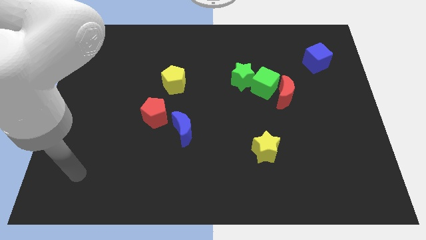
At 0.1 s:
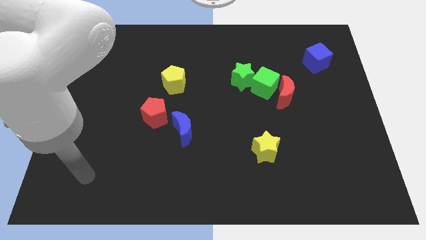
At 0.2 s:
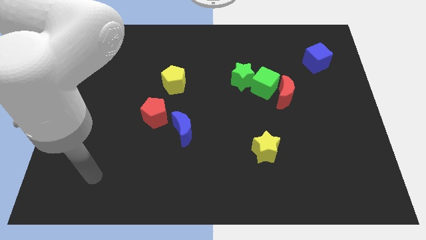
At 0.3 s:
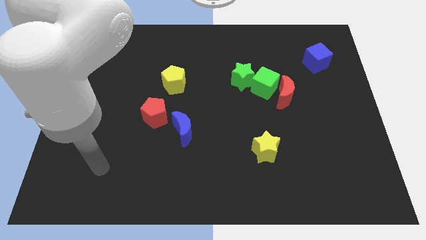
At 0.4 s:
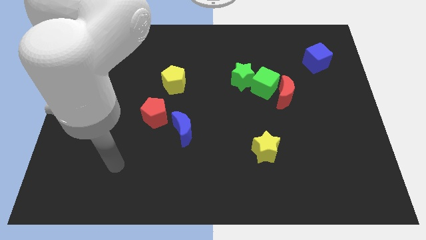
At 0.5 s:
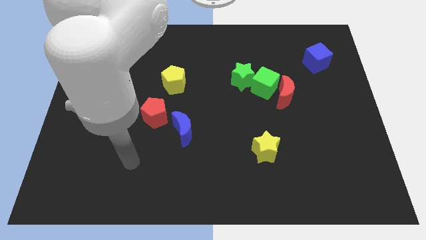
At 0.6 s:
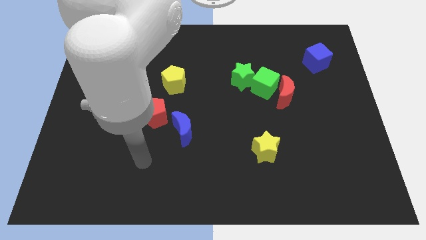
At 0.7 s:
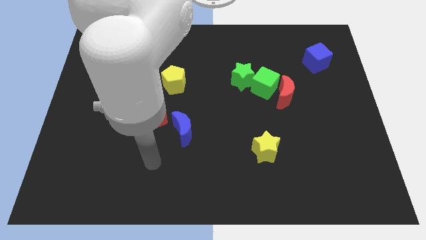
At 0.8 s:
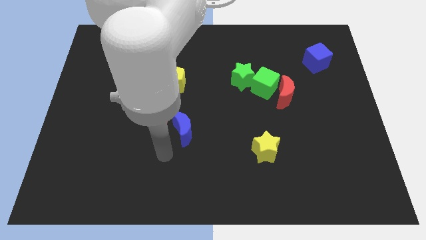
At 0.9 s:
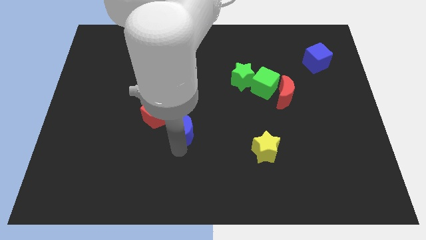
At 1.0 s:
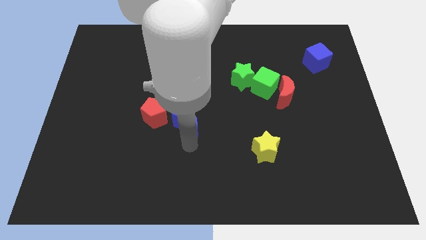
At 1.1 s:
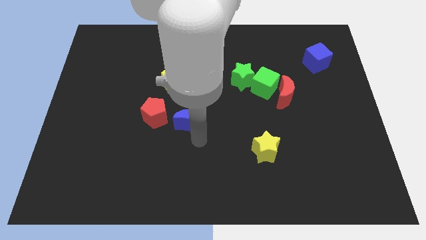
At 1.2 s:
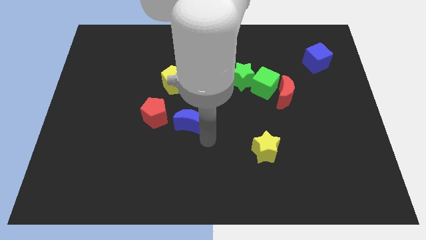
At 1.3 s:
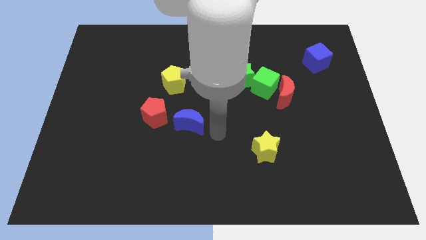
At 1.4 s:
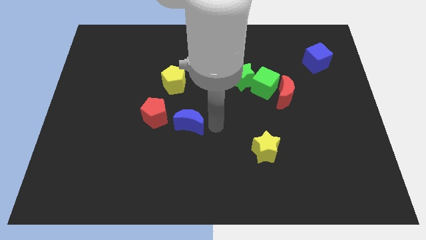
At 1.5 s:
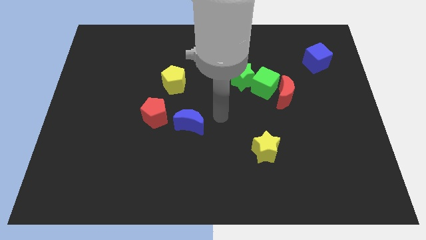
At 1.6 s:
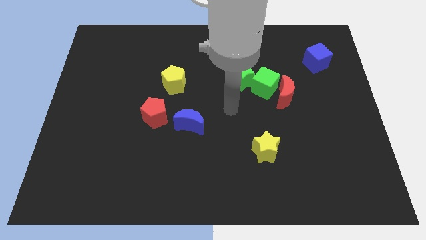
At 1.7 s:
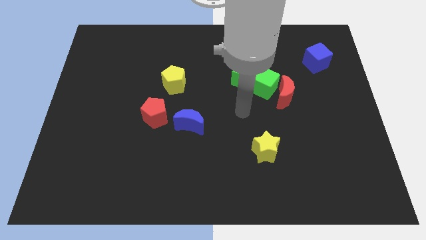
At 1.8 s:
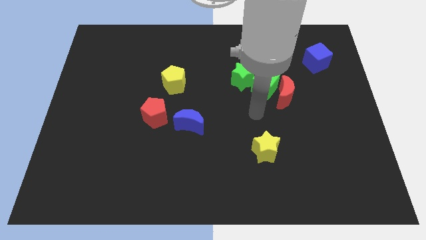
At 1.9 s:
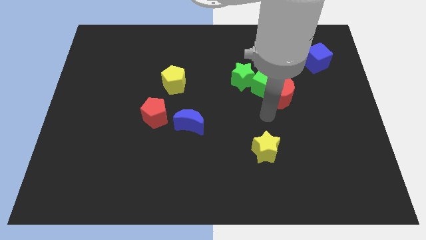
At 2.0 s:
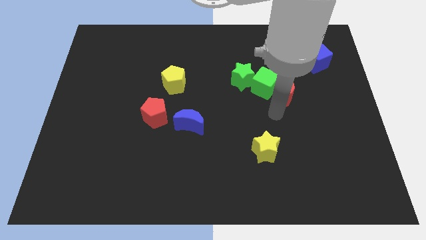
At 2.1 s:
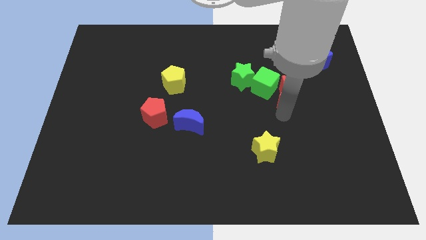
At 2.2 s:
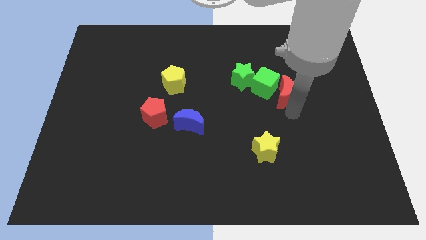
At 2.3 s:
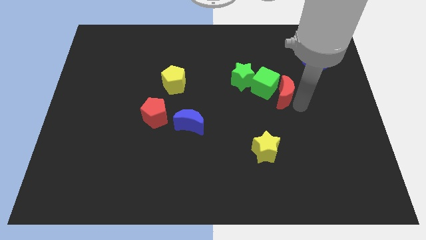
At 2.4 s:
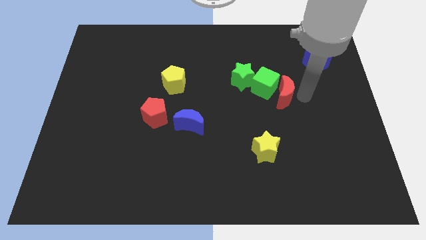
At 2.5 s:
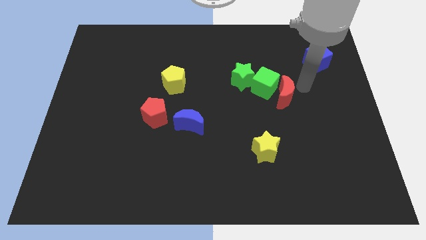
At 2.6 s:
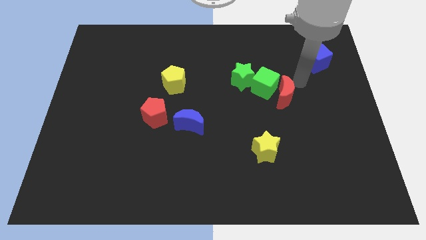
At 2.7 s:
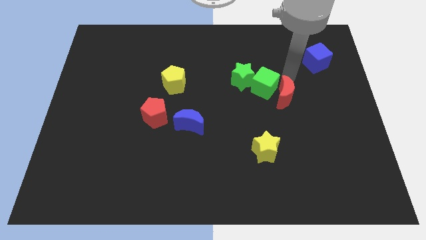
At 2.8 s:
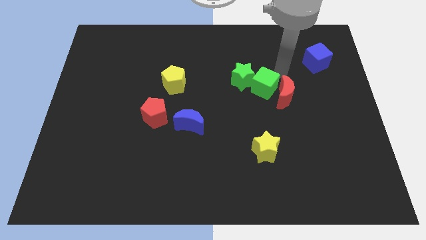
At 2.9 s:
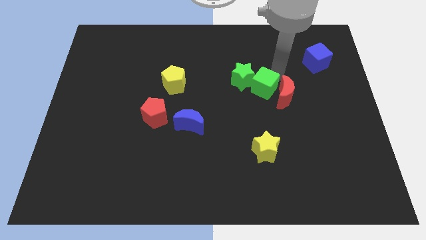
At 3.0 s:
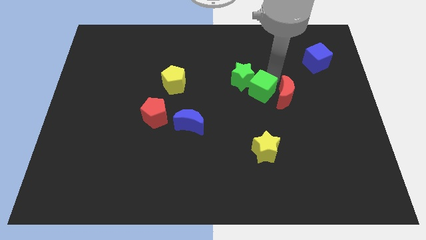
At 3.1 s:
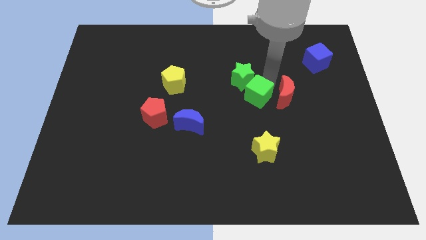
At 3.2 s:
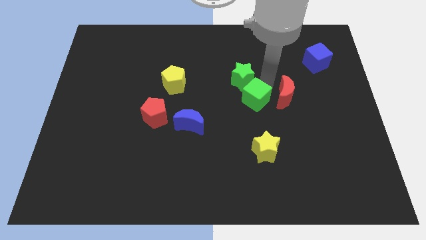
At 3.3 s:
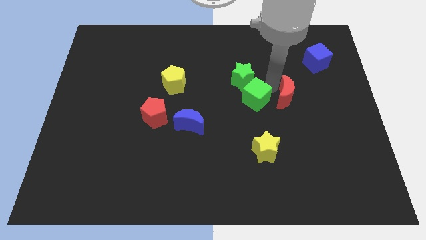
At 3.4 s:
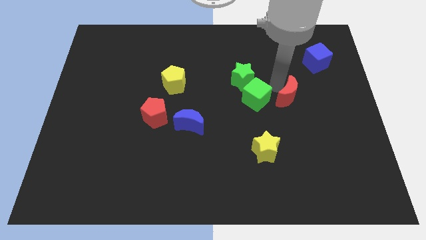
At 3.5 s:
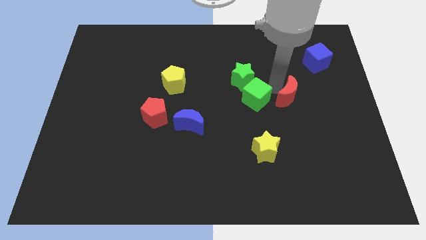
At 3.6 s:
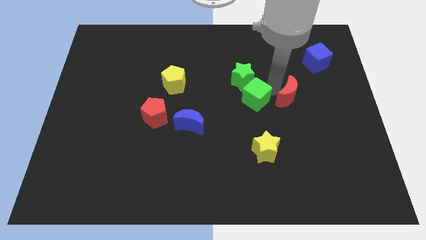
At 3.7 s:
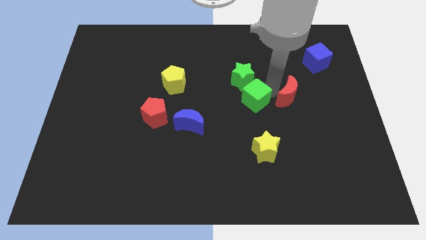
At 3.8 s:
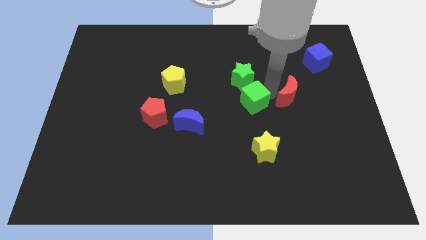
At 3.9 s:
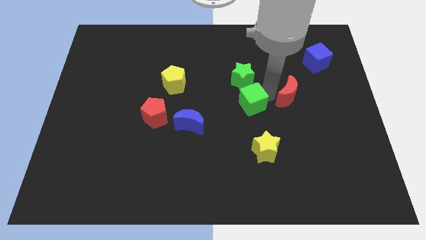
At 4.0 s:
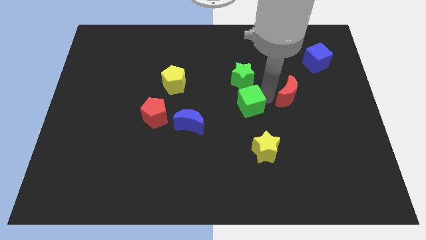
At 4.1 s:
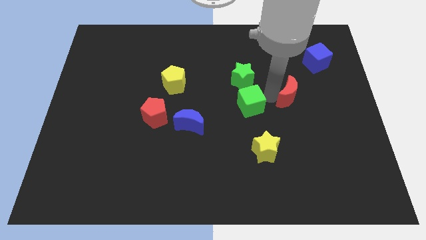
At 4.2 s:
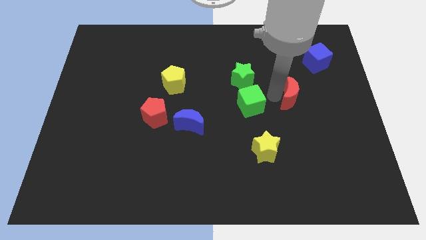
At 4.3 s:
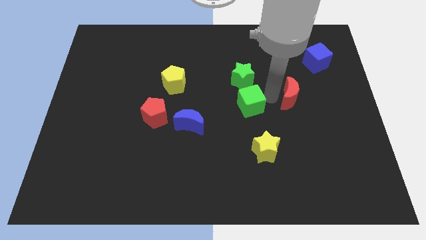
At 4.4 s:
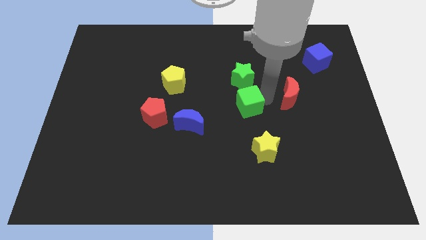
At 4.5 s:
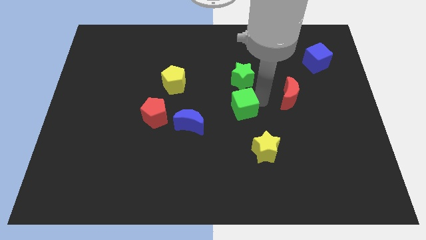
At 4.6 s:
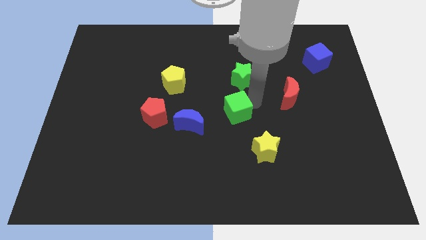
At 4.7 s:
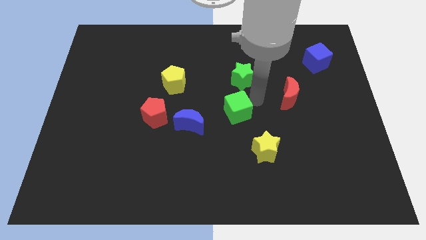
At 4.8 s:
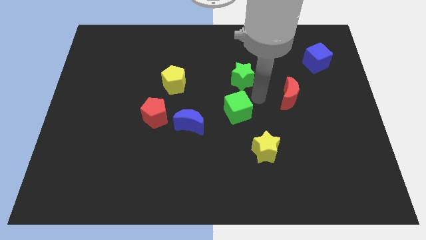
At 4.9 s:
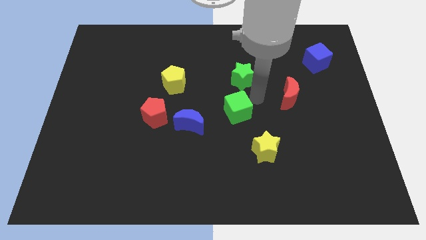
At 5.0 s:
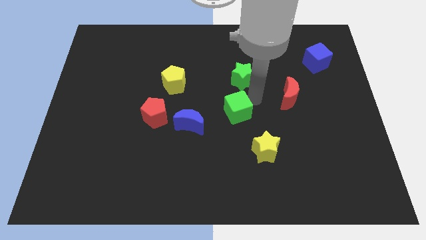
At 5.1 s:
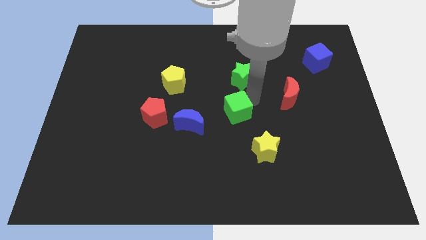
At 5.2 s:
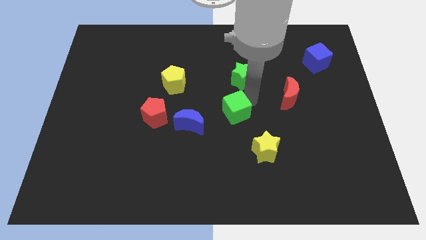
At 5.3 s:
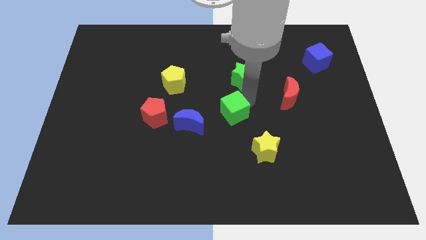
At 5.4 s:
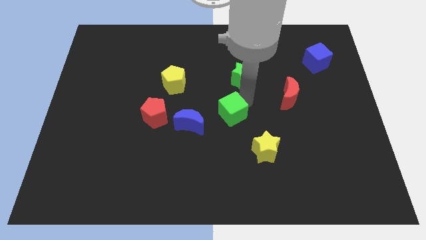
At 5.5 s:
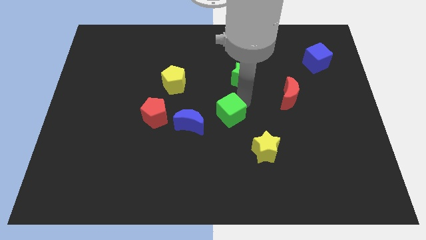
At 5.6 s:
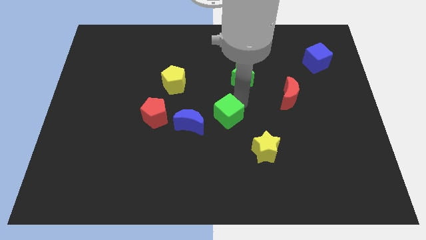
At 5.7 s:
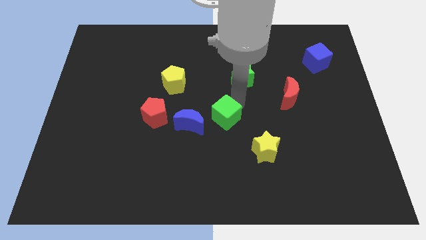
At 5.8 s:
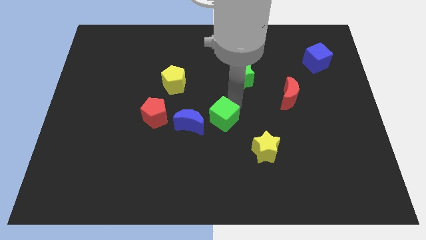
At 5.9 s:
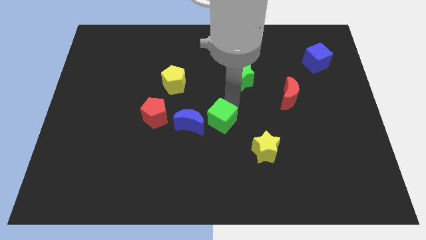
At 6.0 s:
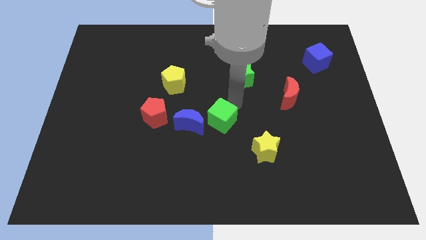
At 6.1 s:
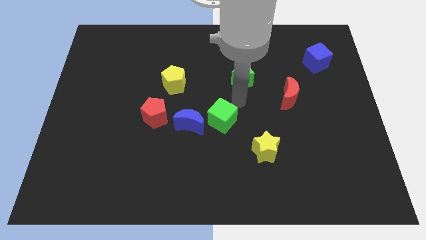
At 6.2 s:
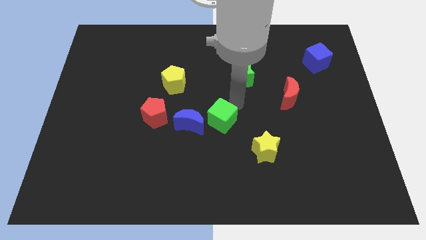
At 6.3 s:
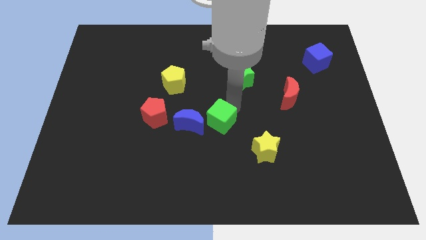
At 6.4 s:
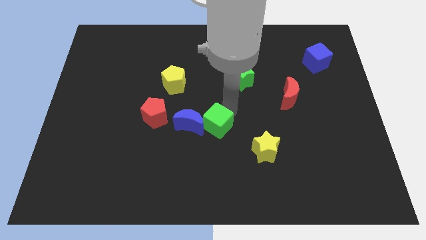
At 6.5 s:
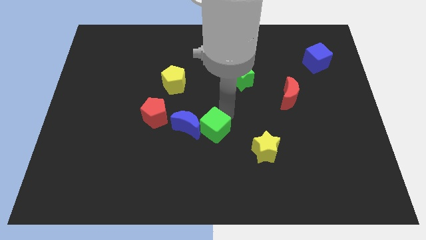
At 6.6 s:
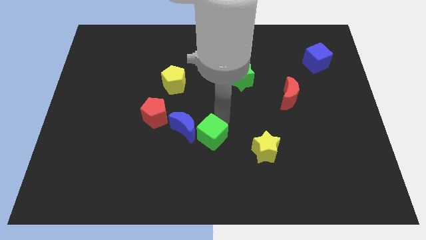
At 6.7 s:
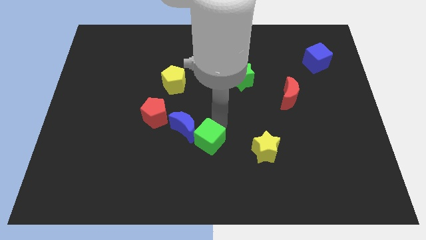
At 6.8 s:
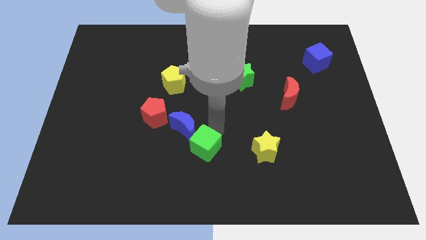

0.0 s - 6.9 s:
put the green cube to the bottom side of the blue moon

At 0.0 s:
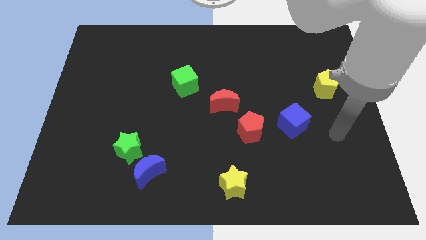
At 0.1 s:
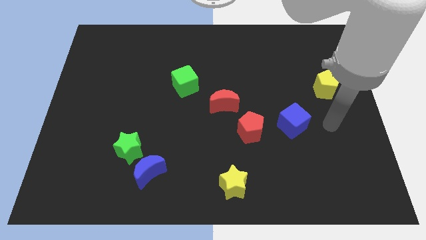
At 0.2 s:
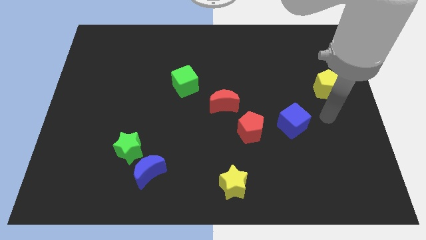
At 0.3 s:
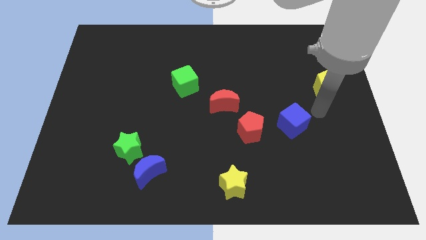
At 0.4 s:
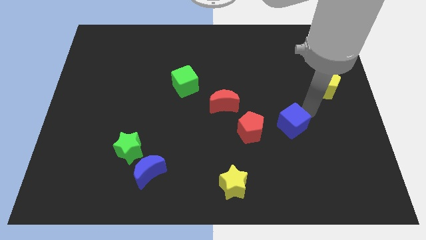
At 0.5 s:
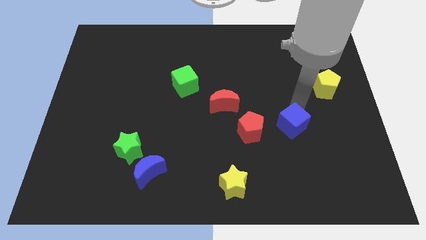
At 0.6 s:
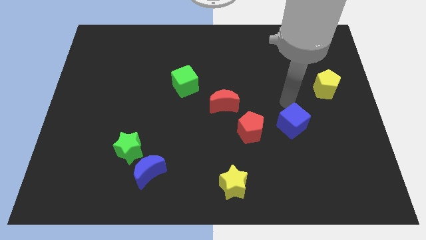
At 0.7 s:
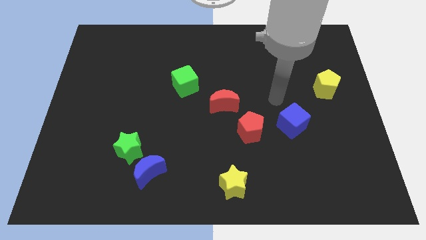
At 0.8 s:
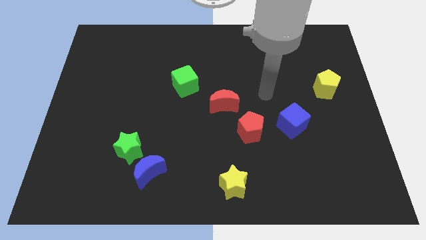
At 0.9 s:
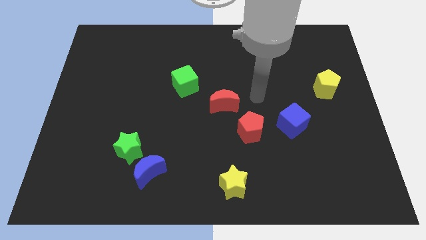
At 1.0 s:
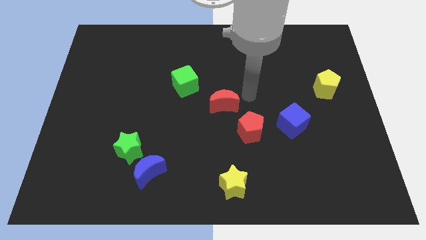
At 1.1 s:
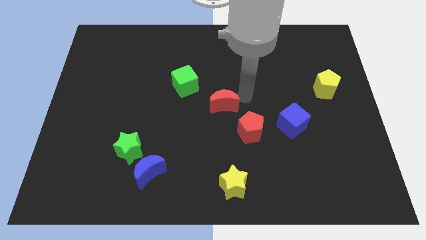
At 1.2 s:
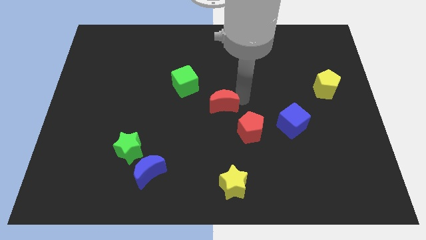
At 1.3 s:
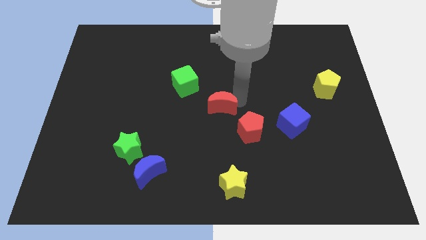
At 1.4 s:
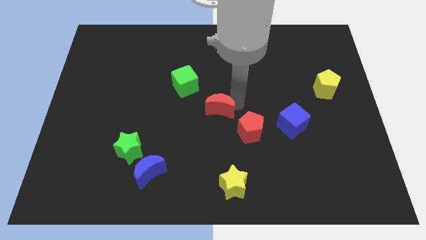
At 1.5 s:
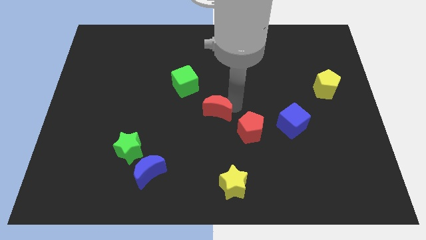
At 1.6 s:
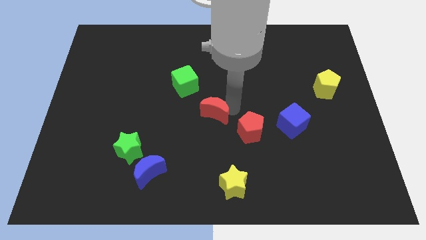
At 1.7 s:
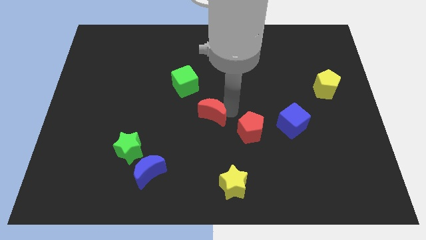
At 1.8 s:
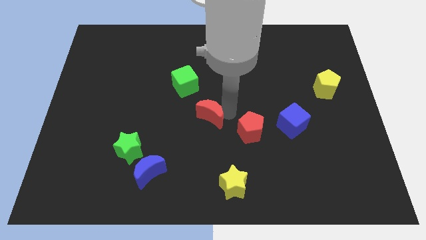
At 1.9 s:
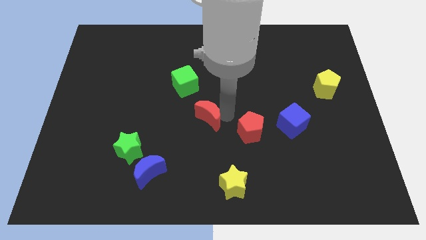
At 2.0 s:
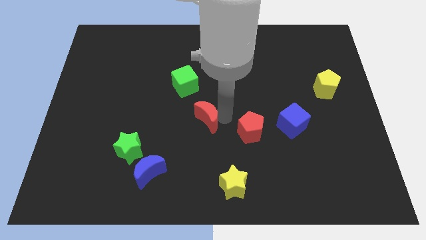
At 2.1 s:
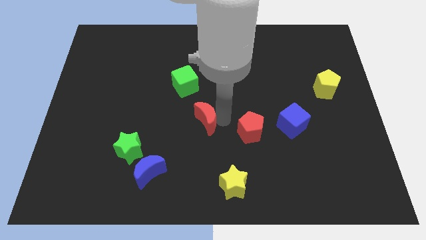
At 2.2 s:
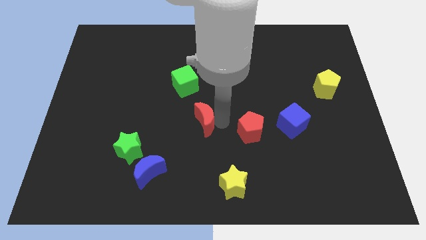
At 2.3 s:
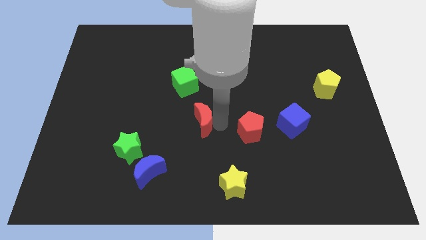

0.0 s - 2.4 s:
move the red moon to the bottom side of the green cube
